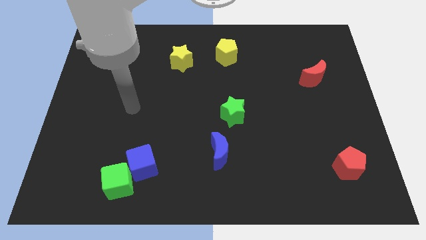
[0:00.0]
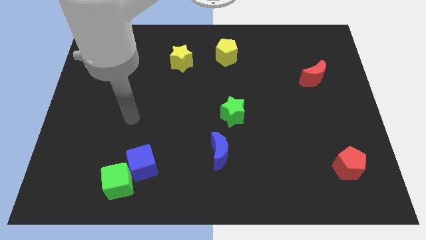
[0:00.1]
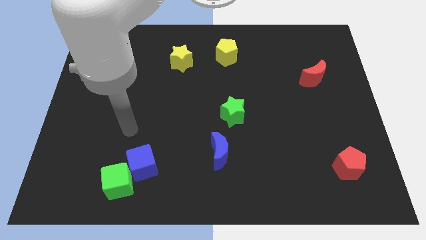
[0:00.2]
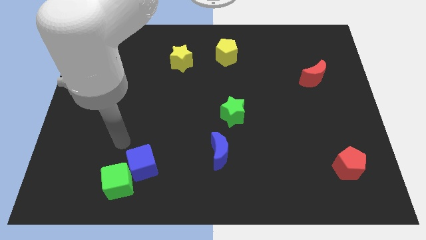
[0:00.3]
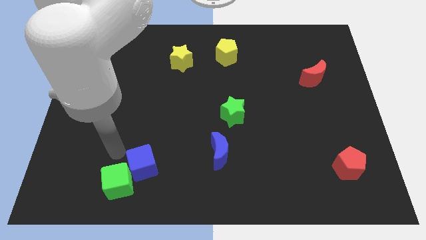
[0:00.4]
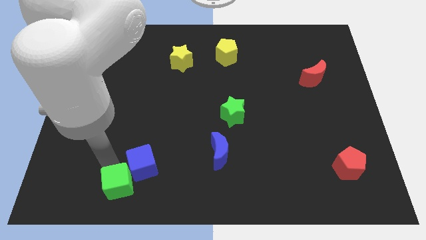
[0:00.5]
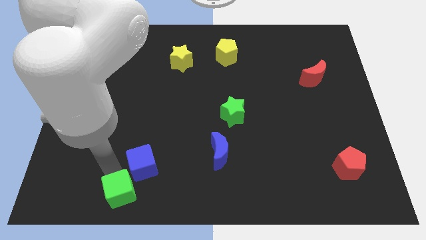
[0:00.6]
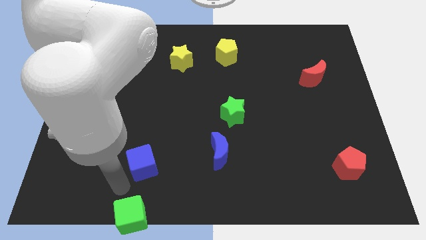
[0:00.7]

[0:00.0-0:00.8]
move the blue cube away from the green cube

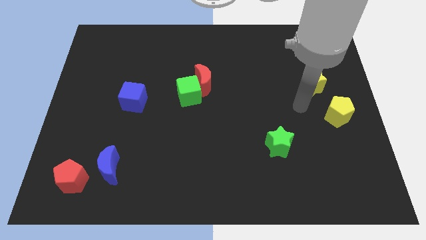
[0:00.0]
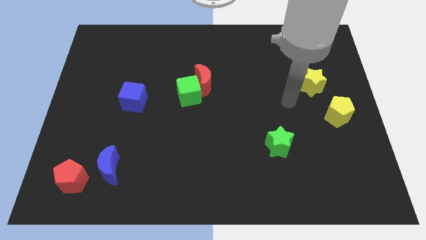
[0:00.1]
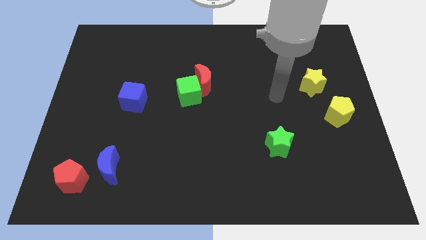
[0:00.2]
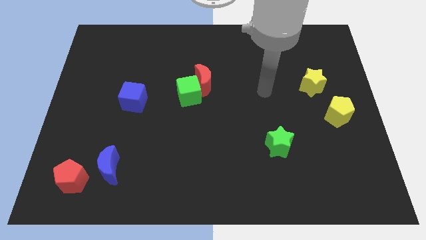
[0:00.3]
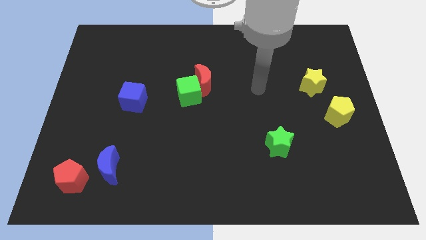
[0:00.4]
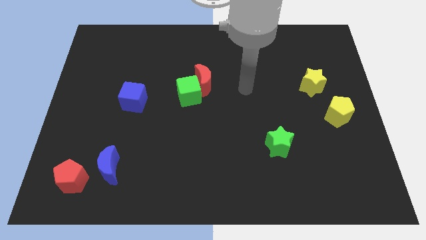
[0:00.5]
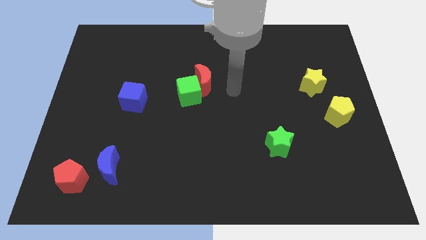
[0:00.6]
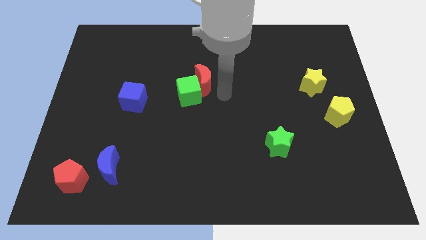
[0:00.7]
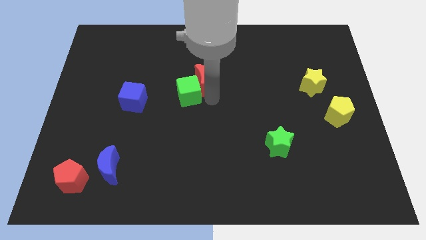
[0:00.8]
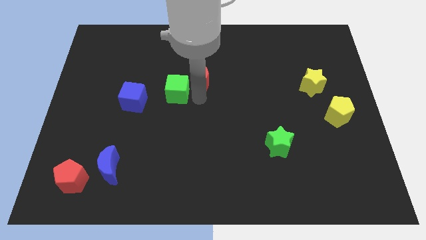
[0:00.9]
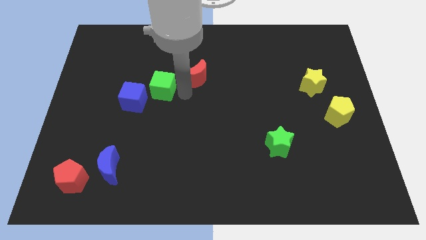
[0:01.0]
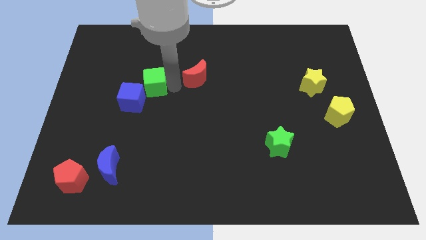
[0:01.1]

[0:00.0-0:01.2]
pull the red moon apart from the green cube

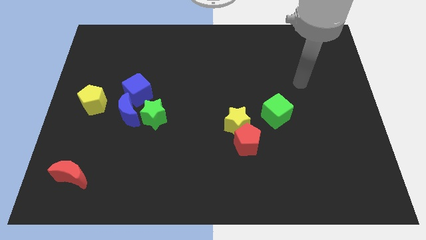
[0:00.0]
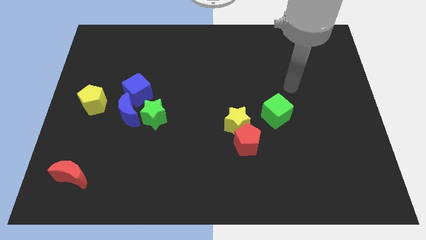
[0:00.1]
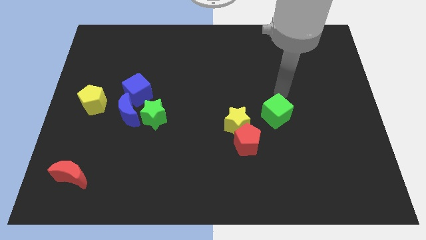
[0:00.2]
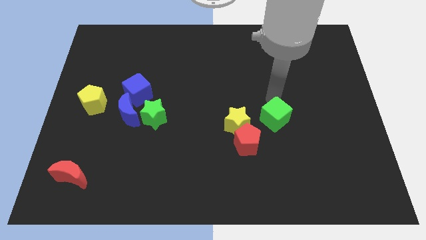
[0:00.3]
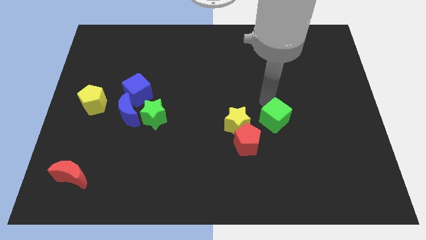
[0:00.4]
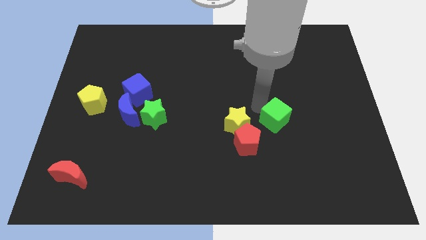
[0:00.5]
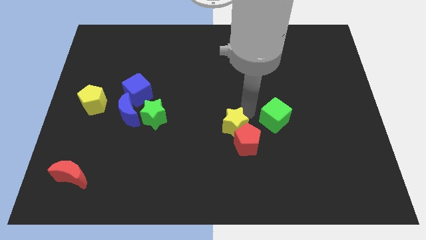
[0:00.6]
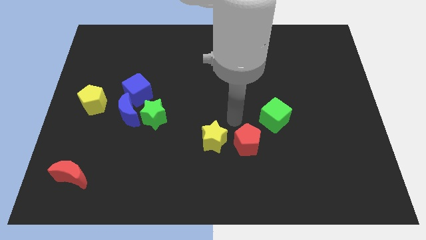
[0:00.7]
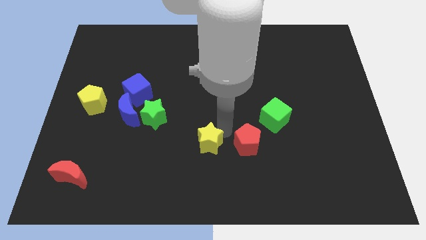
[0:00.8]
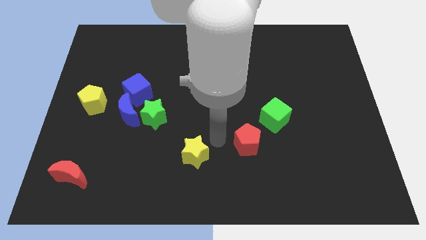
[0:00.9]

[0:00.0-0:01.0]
pull the red pentagon apart from the yellow star

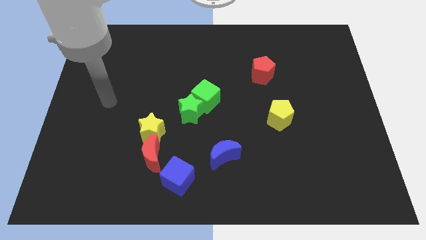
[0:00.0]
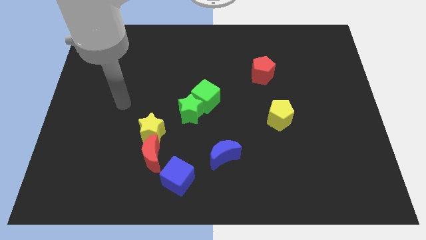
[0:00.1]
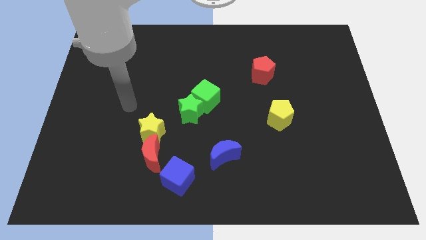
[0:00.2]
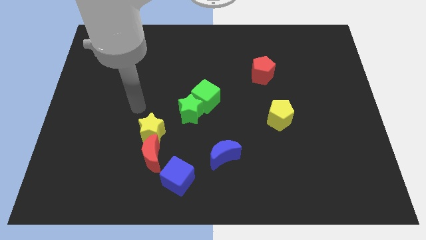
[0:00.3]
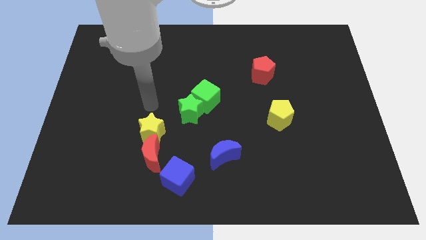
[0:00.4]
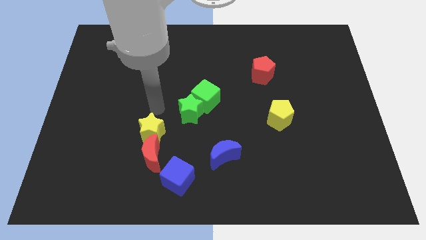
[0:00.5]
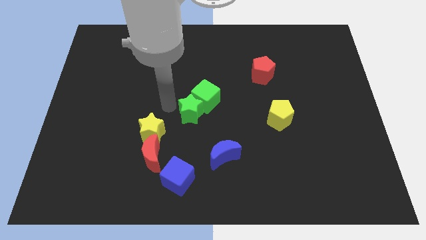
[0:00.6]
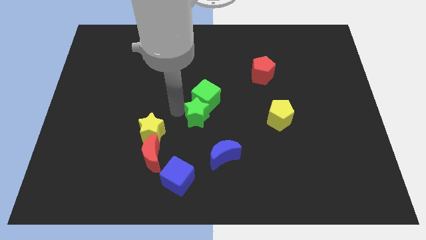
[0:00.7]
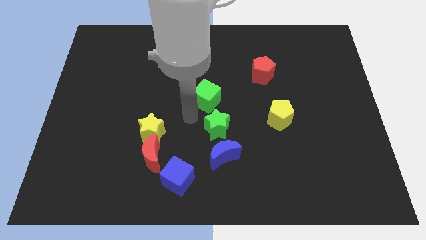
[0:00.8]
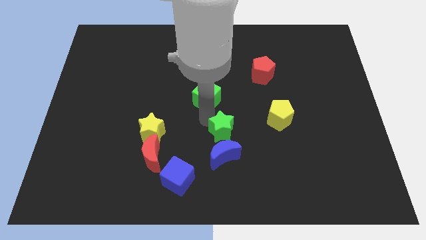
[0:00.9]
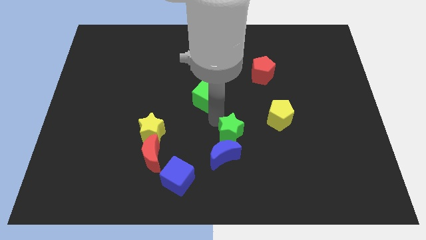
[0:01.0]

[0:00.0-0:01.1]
separate the green cube from the green star

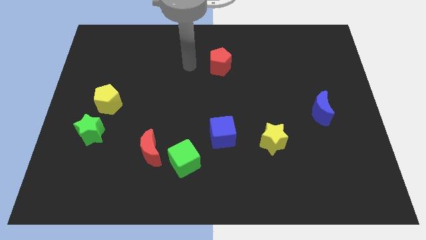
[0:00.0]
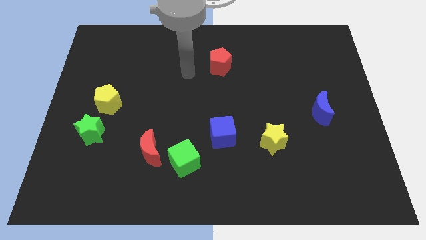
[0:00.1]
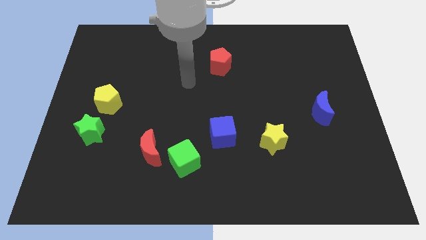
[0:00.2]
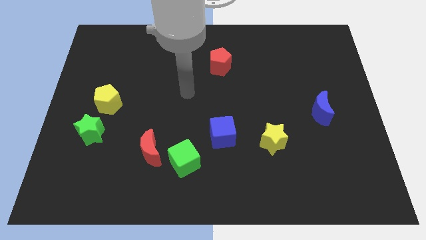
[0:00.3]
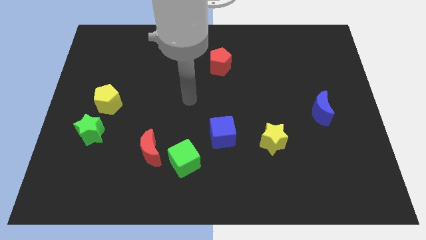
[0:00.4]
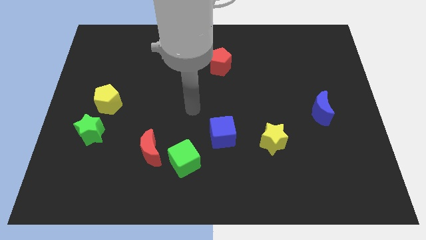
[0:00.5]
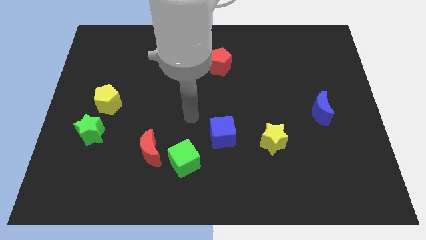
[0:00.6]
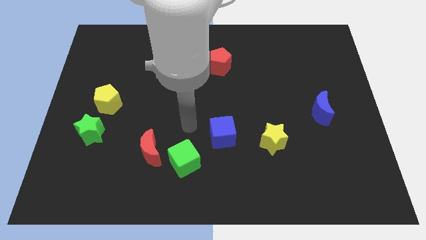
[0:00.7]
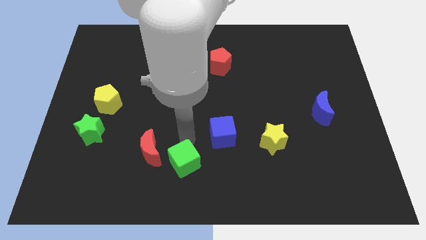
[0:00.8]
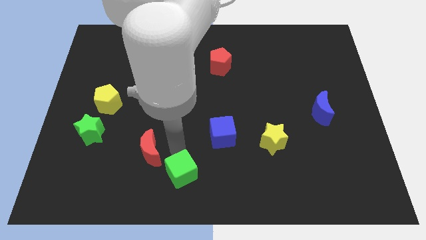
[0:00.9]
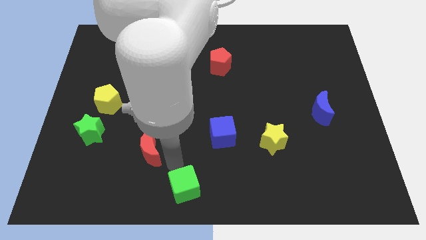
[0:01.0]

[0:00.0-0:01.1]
move the red moon away from the green cube

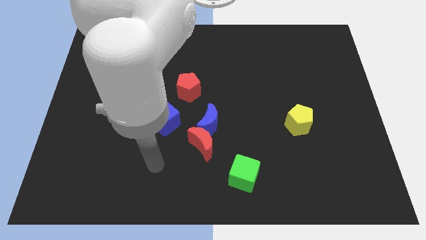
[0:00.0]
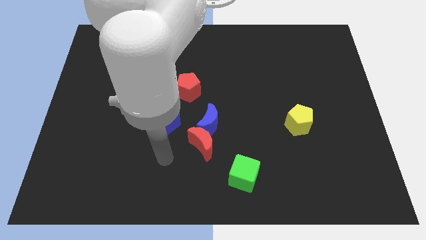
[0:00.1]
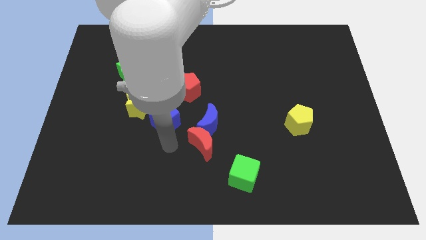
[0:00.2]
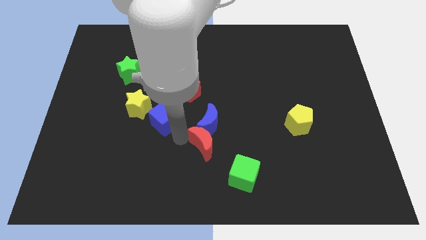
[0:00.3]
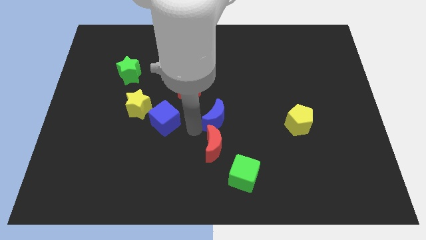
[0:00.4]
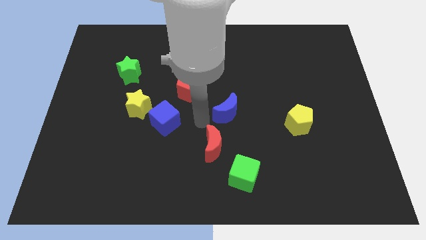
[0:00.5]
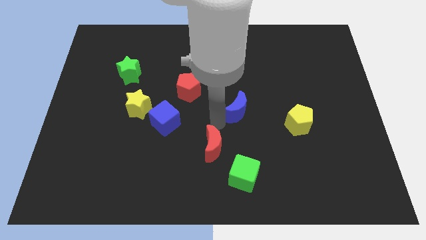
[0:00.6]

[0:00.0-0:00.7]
move the red moon away from the blue moon

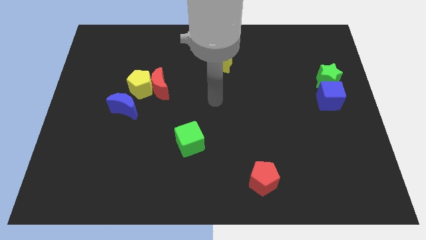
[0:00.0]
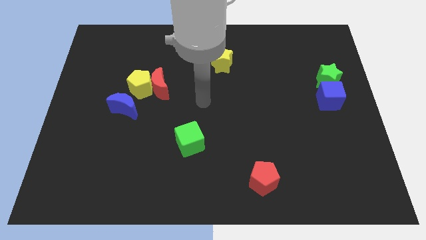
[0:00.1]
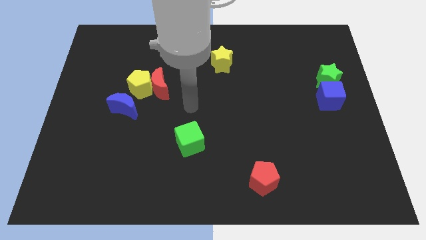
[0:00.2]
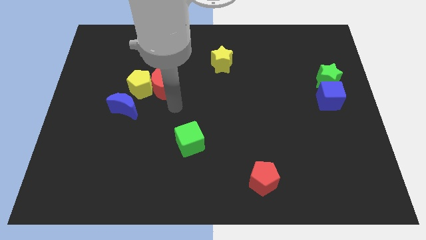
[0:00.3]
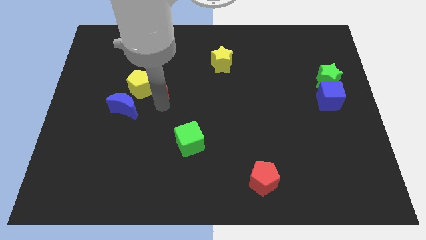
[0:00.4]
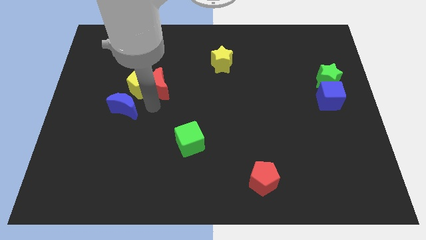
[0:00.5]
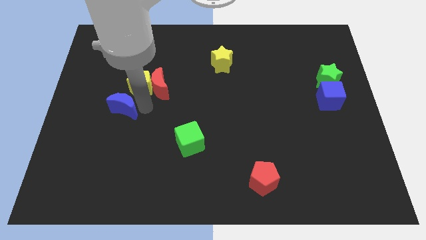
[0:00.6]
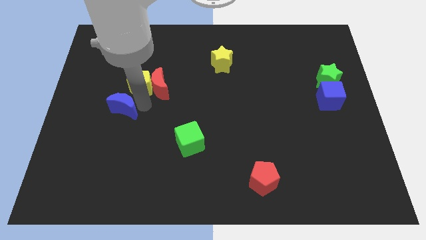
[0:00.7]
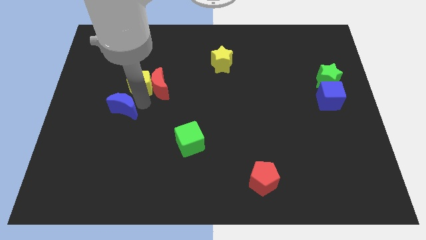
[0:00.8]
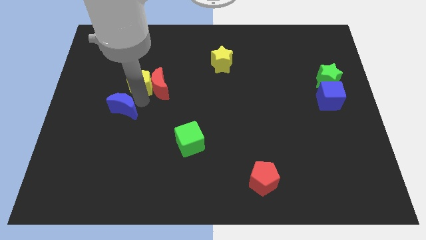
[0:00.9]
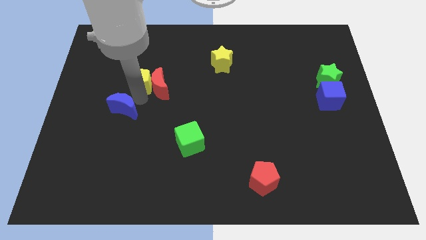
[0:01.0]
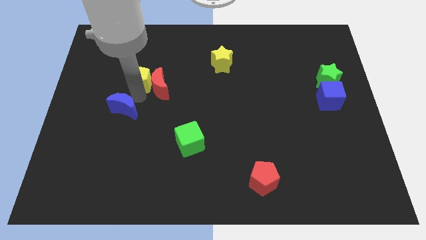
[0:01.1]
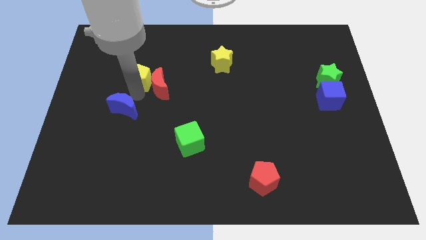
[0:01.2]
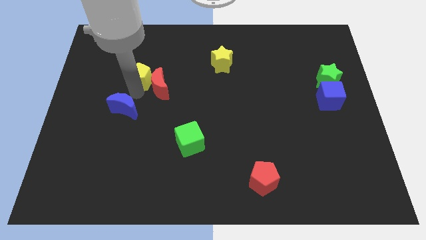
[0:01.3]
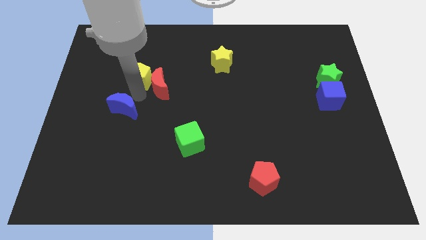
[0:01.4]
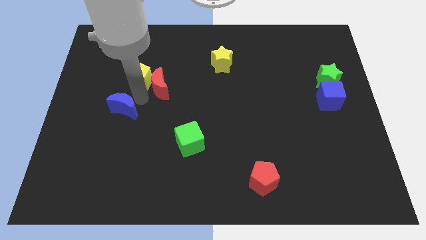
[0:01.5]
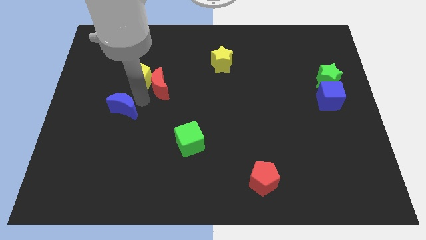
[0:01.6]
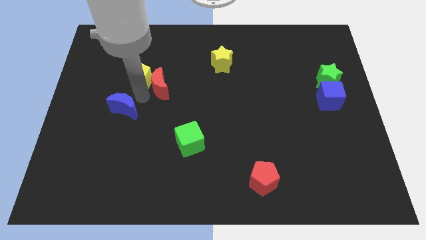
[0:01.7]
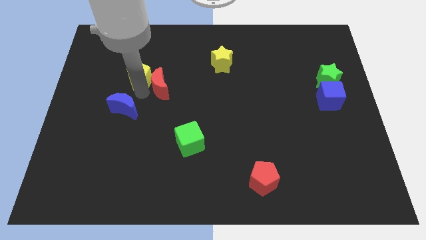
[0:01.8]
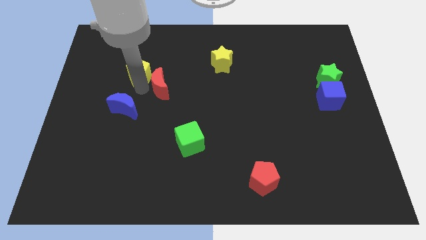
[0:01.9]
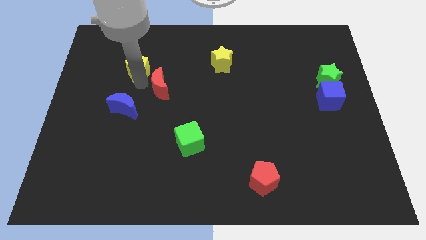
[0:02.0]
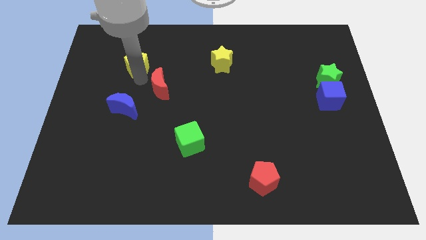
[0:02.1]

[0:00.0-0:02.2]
pull the yellow pentagon apart from the red moon and blue moon

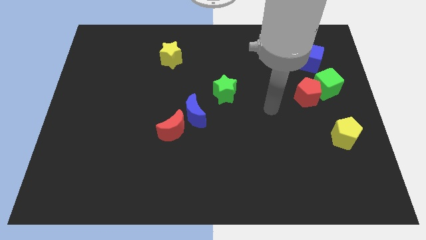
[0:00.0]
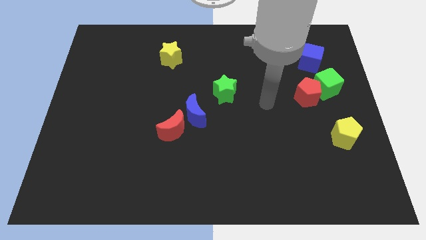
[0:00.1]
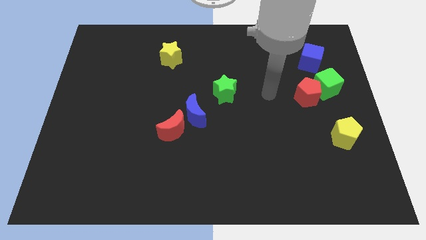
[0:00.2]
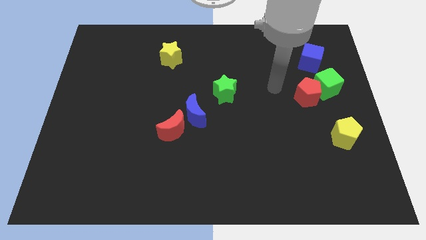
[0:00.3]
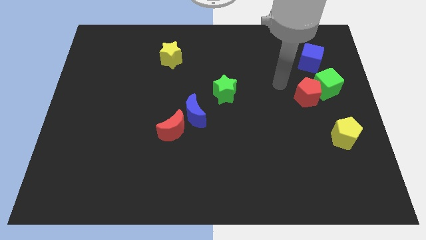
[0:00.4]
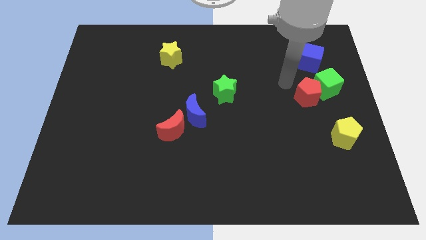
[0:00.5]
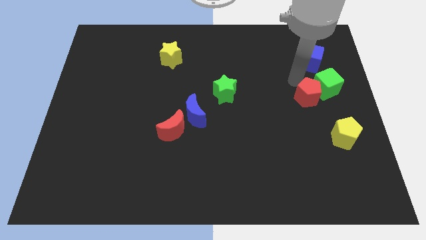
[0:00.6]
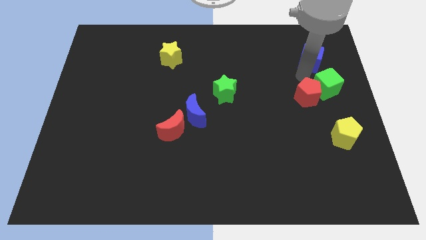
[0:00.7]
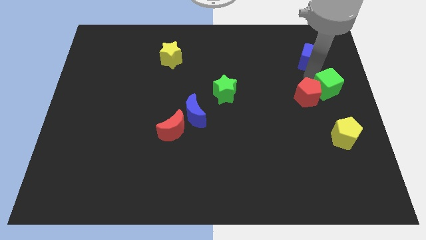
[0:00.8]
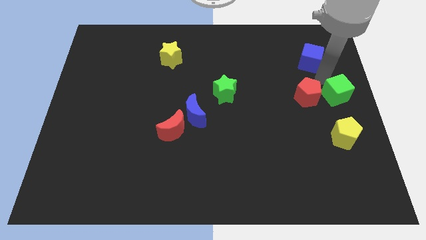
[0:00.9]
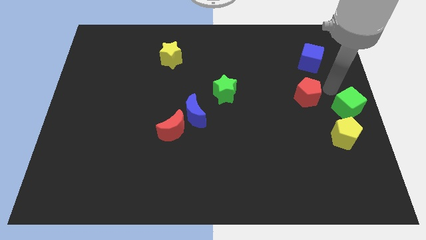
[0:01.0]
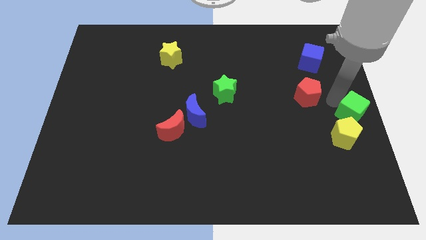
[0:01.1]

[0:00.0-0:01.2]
move the red pentagon away from the green cube
